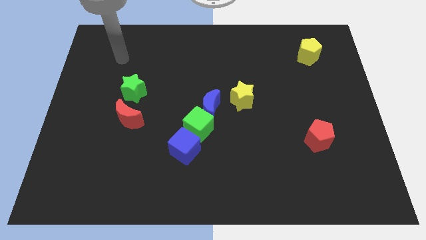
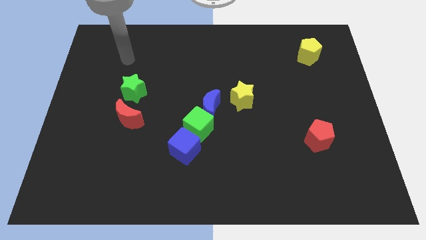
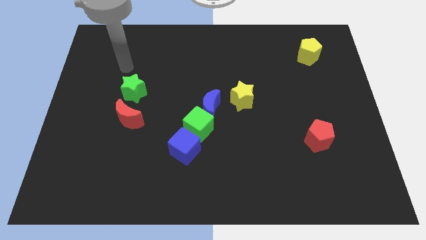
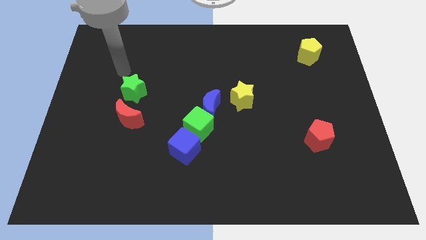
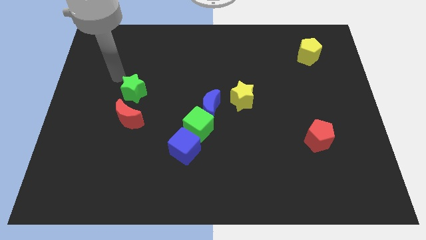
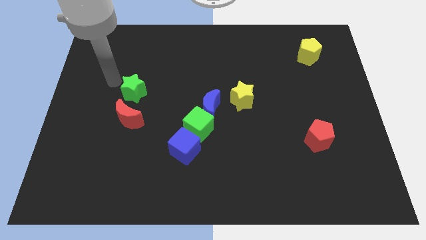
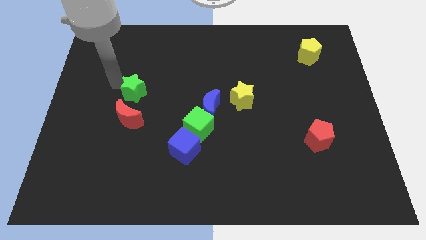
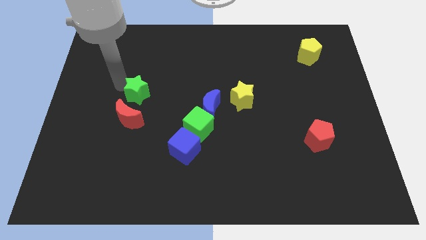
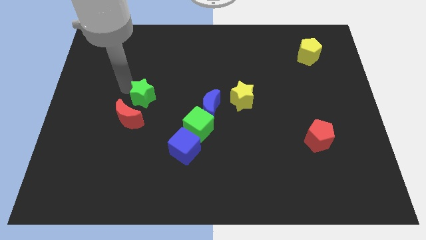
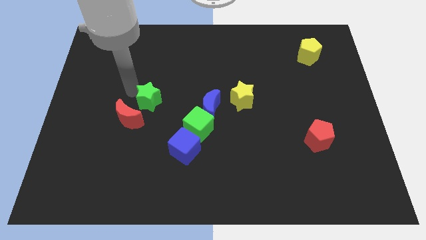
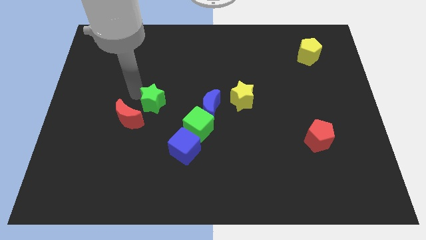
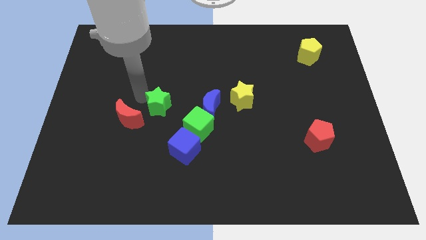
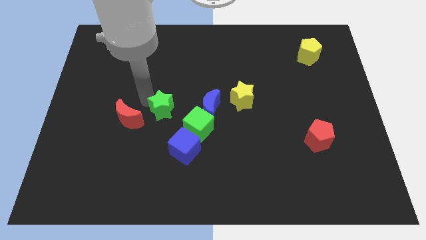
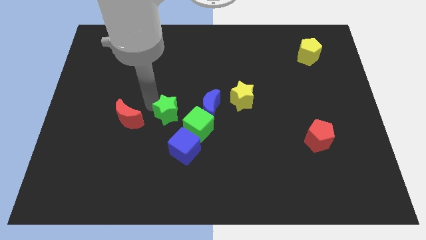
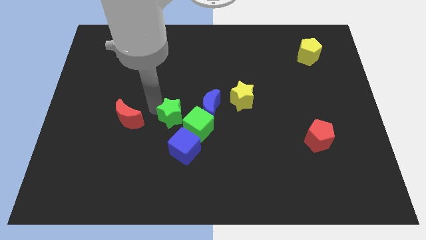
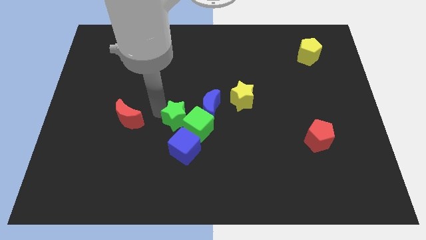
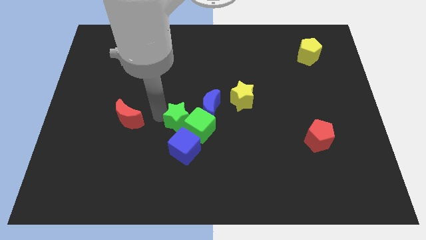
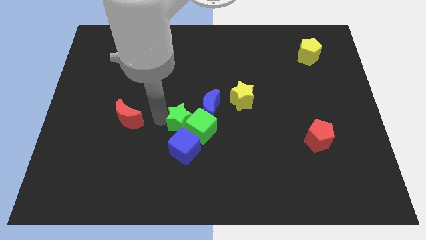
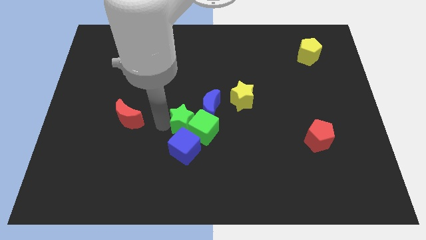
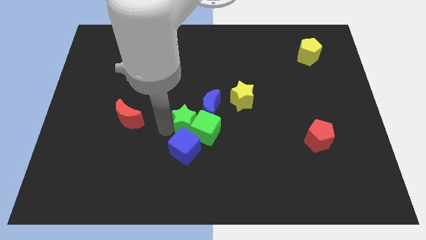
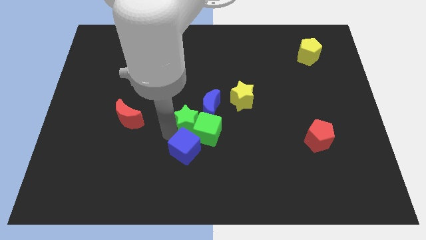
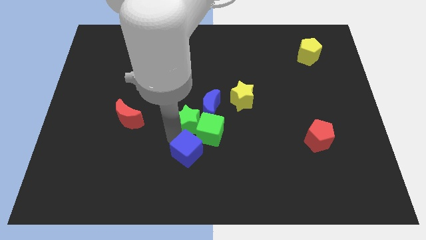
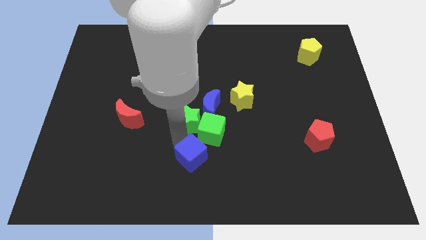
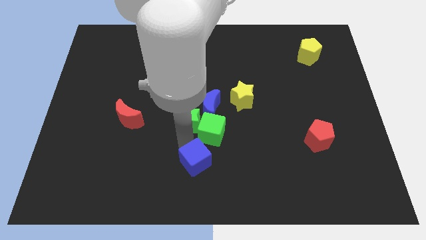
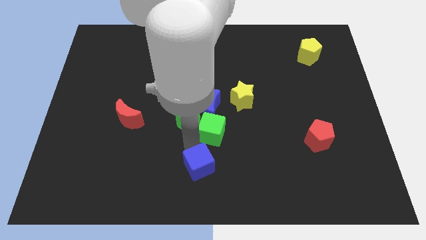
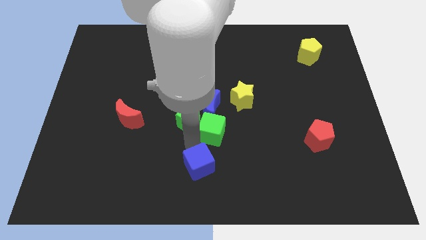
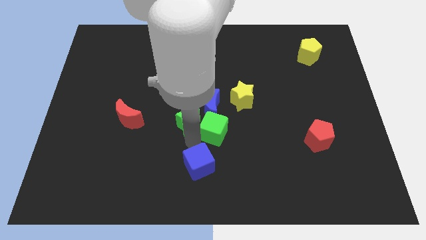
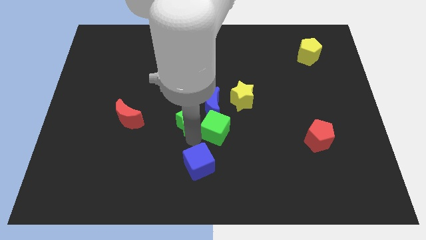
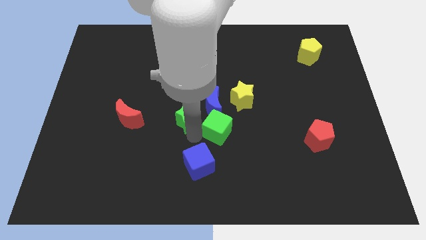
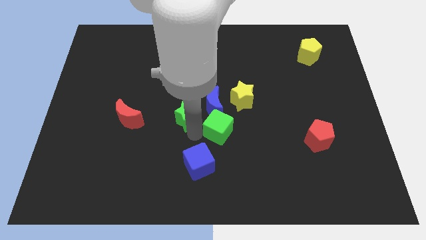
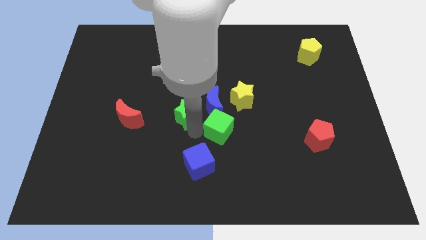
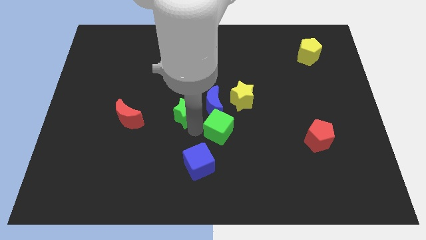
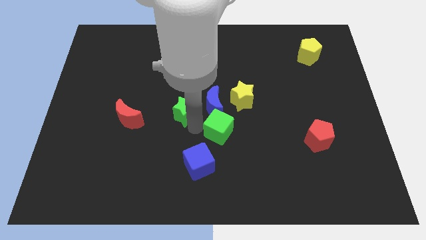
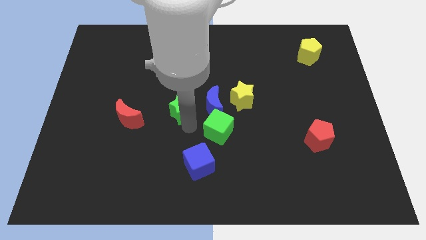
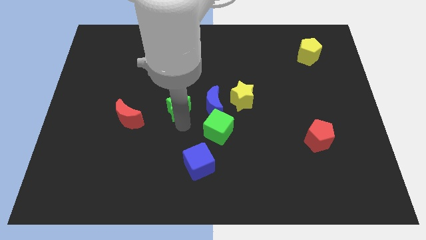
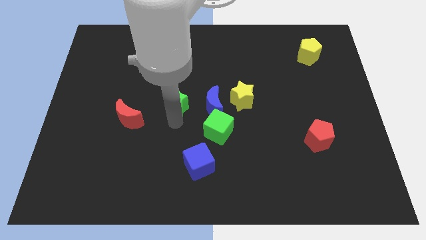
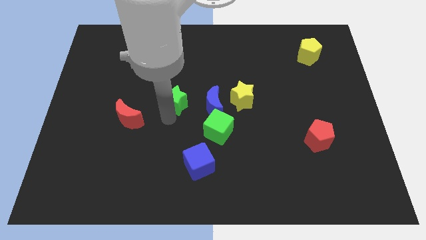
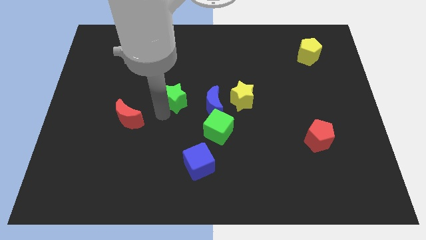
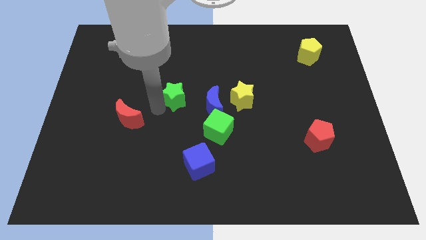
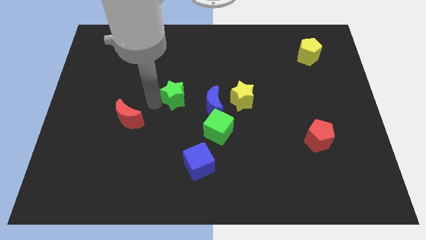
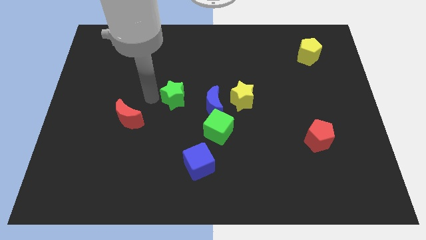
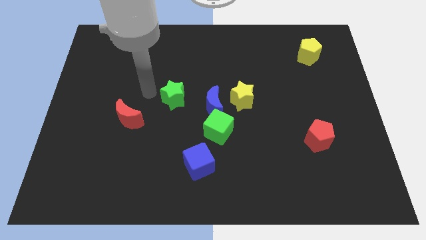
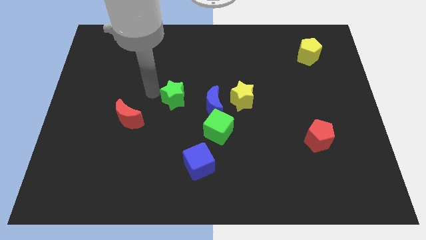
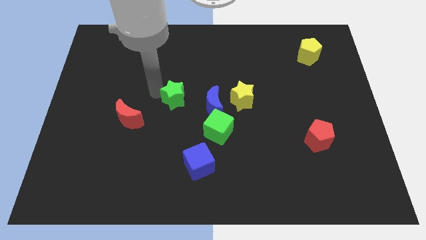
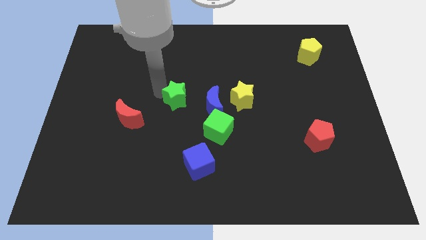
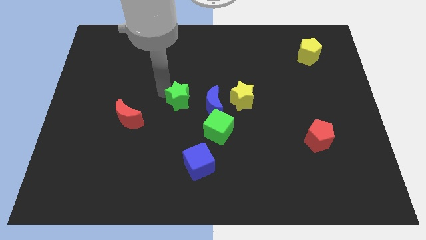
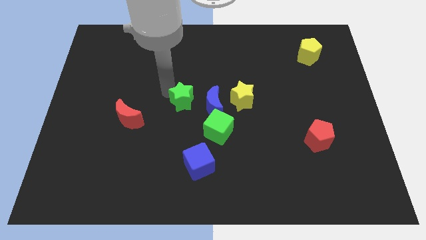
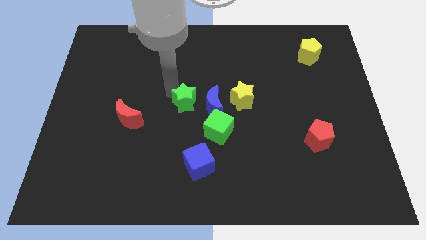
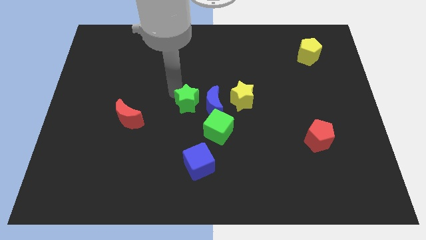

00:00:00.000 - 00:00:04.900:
put the green star close to the blue moon

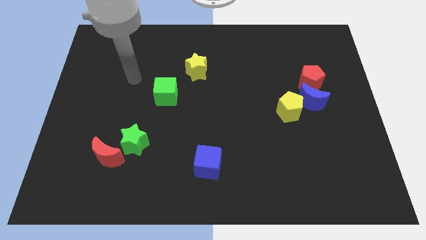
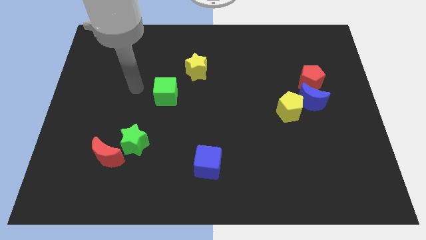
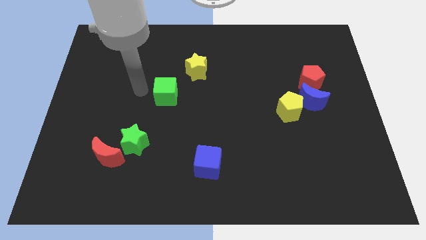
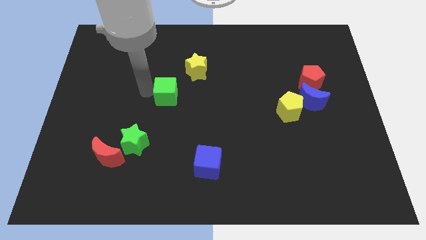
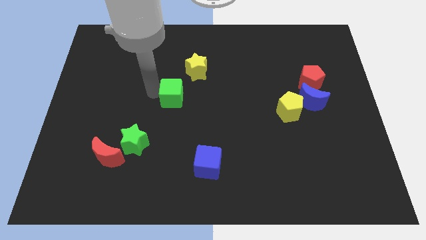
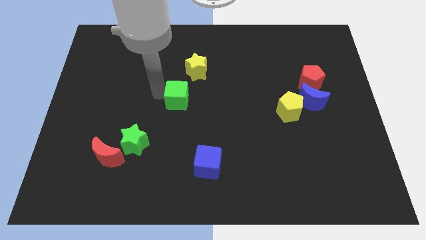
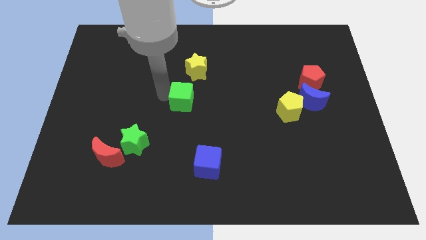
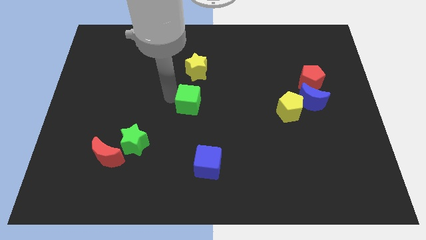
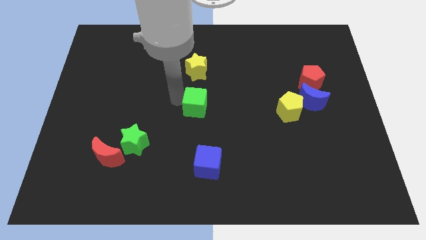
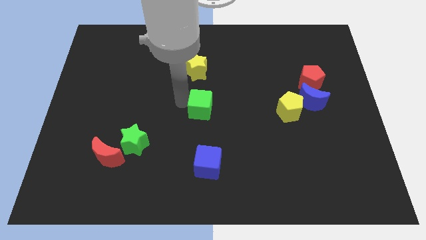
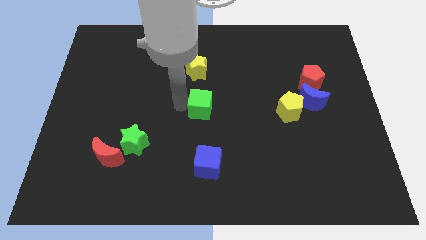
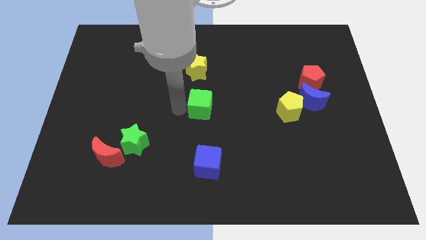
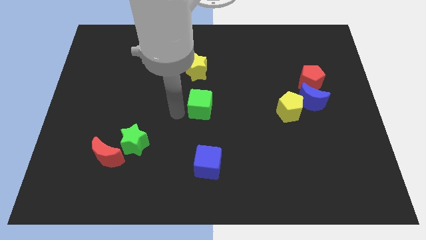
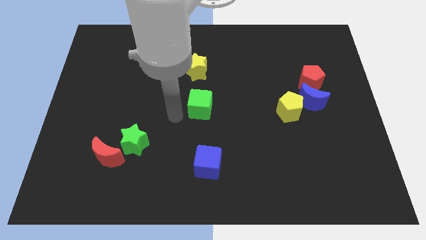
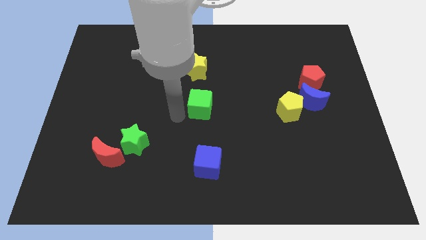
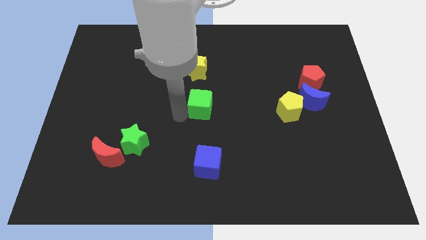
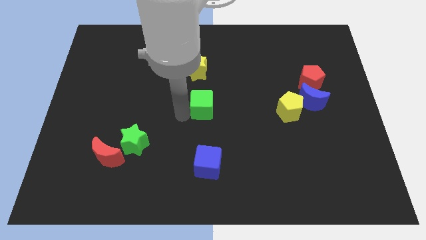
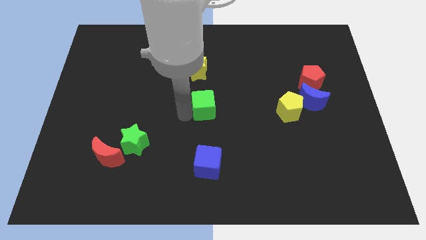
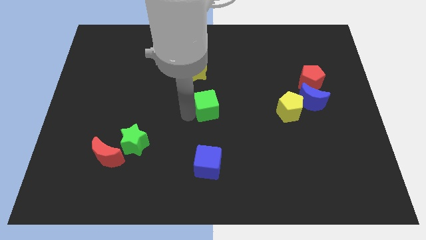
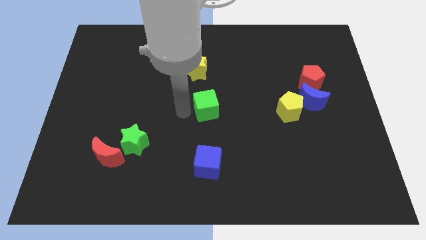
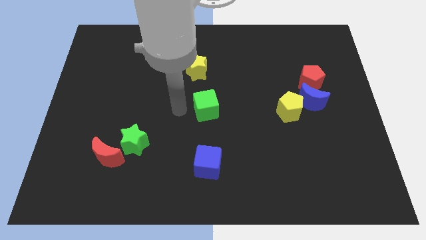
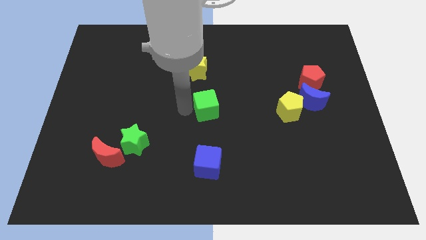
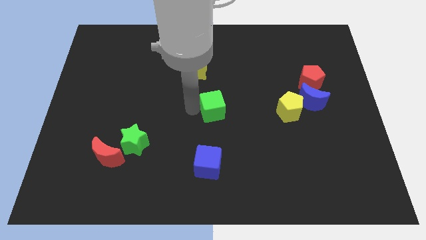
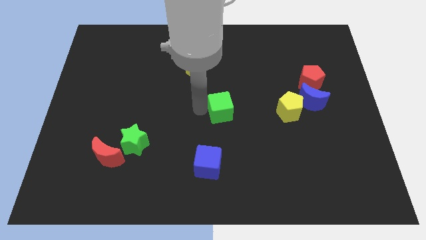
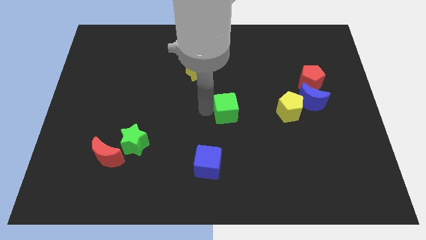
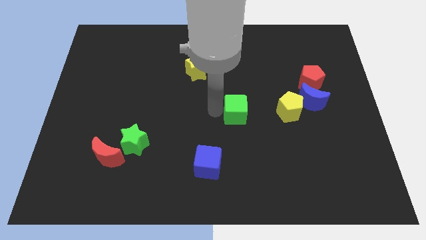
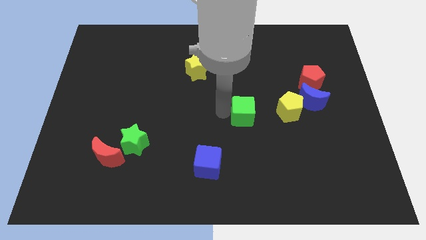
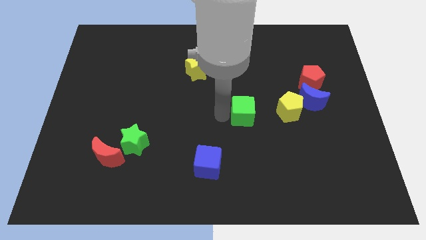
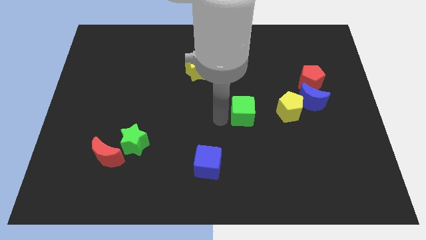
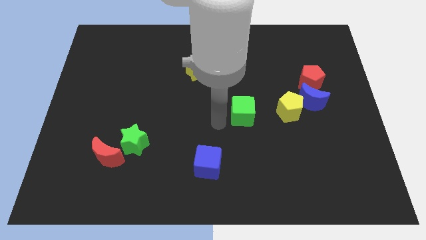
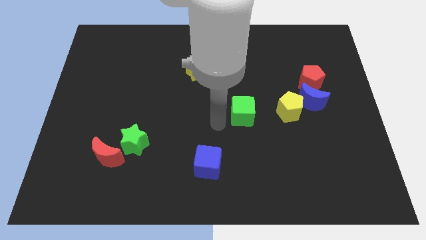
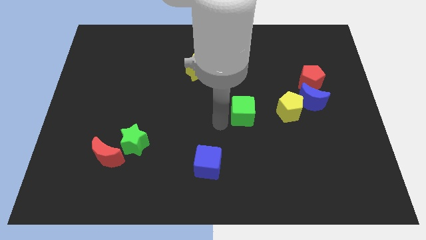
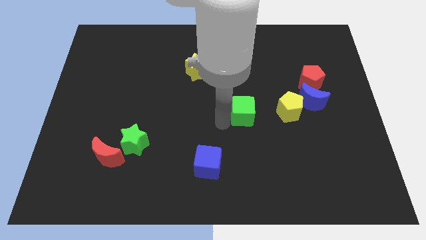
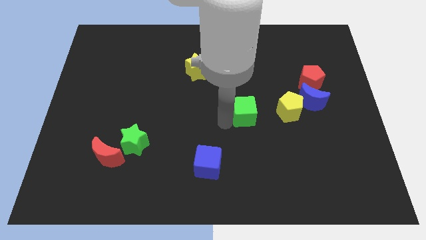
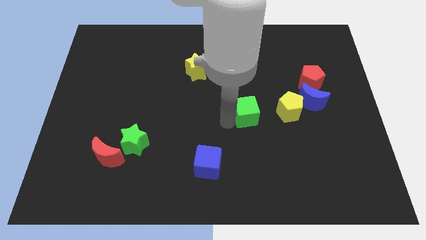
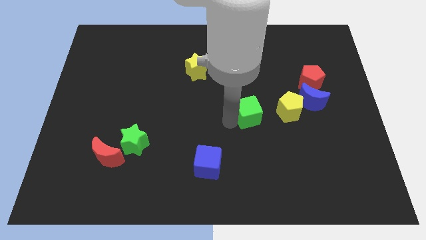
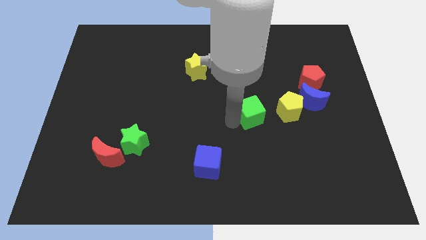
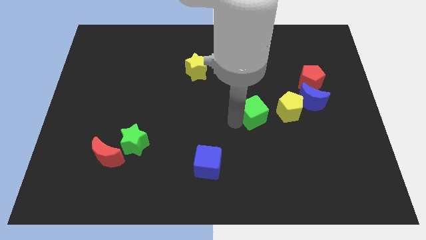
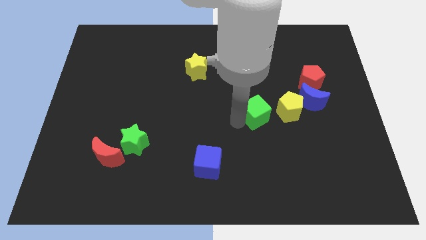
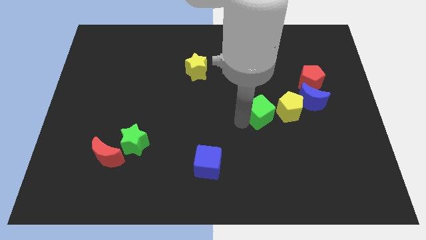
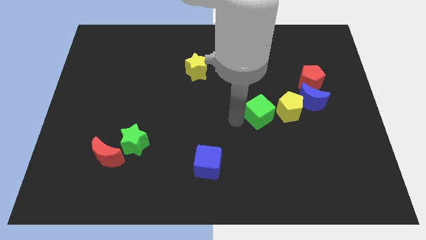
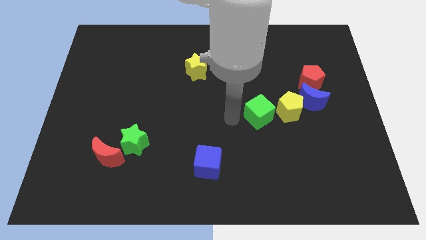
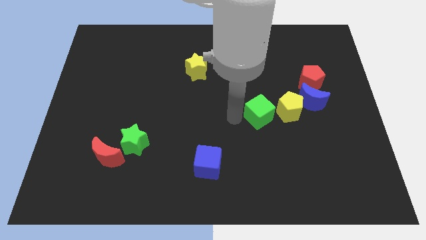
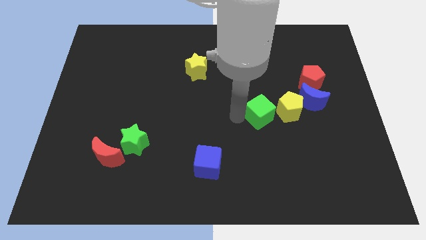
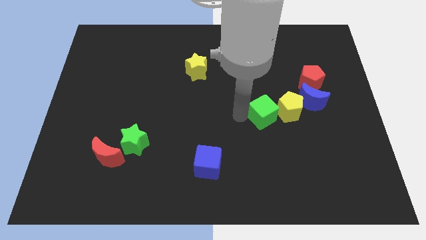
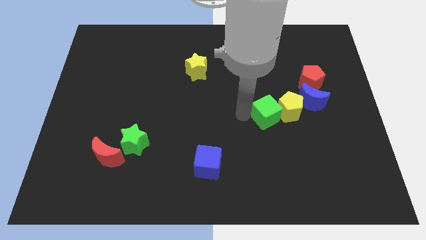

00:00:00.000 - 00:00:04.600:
push the green cube next to the yellow pentagon
